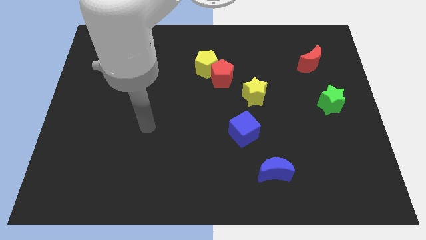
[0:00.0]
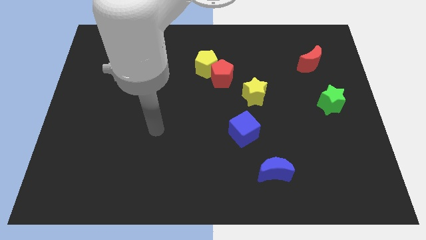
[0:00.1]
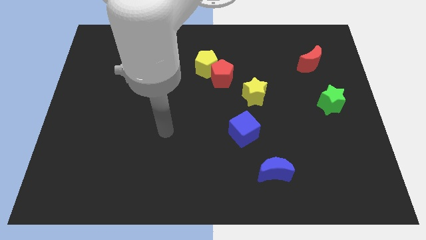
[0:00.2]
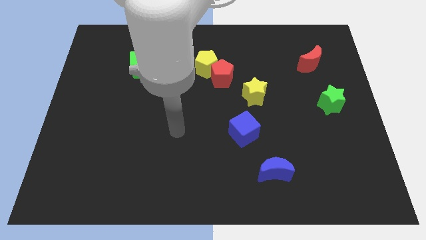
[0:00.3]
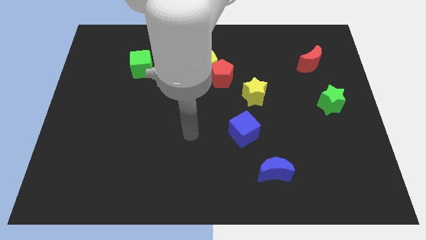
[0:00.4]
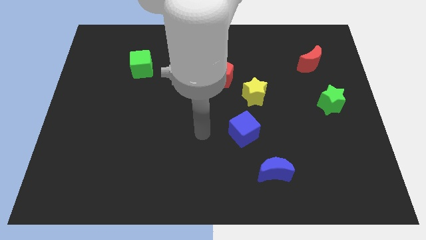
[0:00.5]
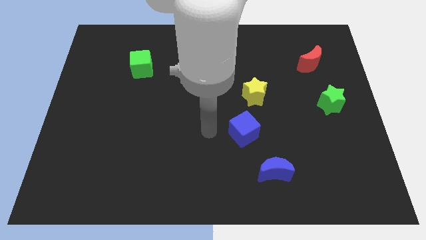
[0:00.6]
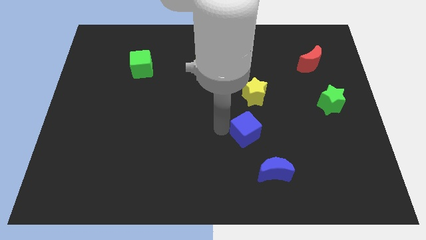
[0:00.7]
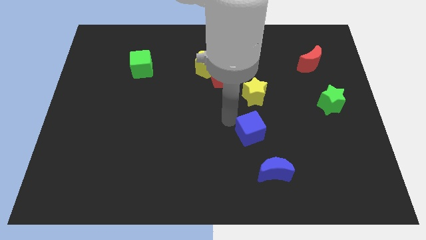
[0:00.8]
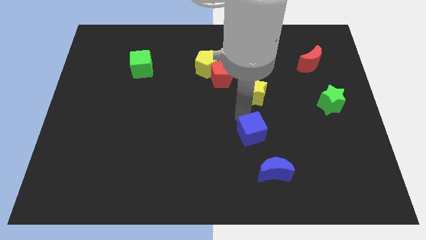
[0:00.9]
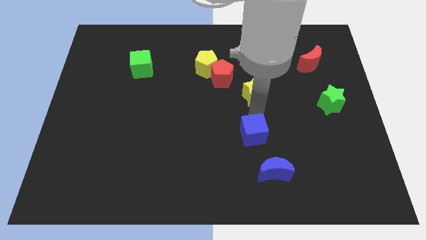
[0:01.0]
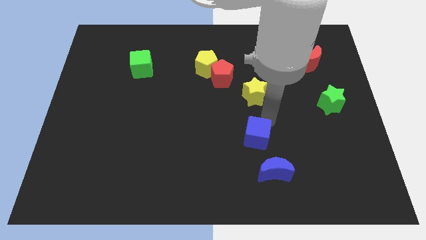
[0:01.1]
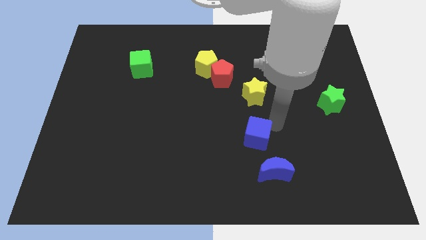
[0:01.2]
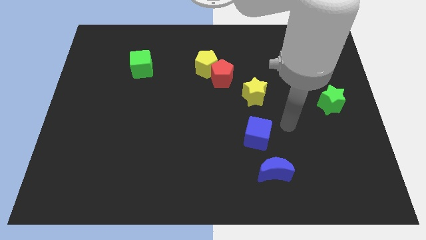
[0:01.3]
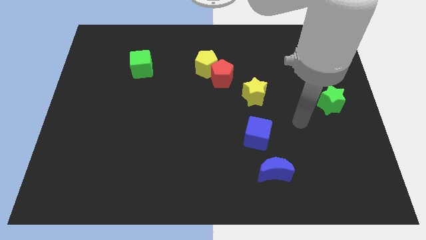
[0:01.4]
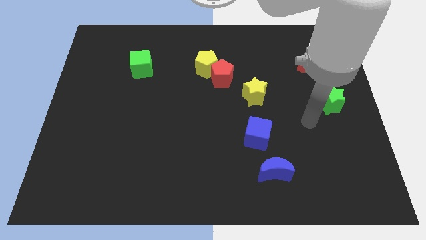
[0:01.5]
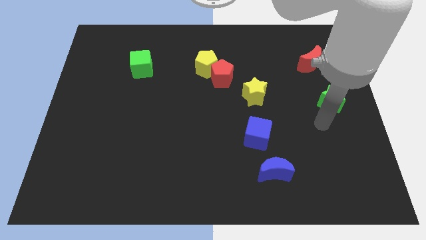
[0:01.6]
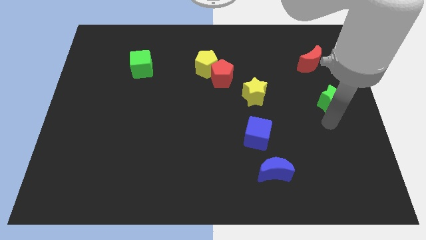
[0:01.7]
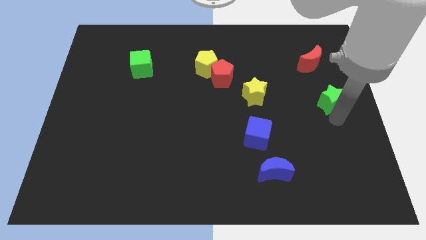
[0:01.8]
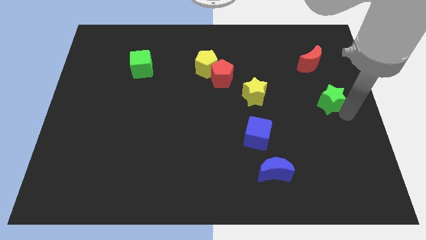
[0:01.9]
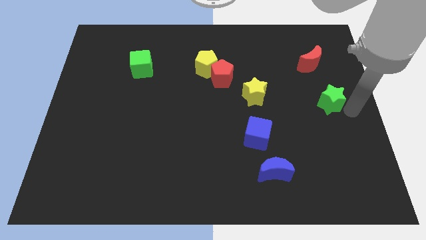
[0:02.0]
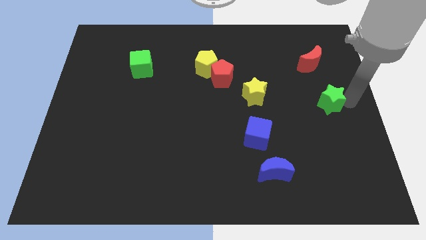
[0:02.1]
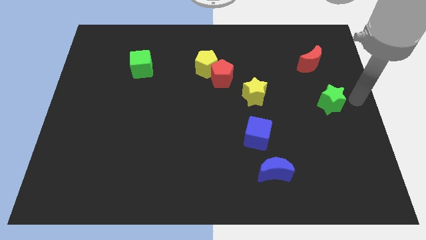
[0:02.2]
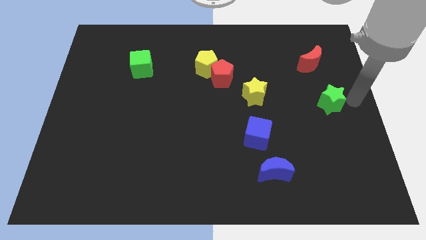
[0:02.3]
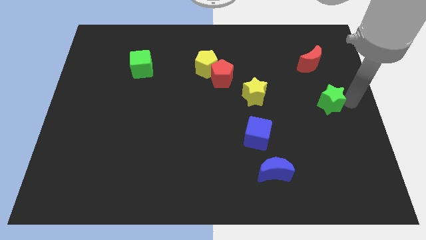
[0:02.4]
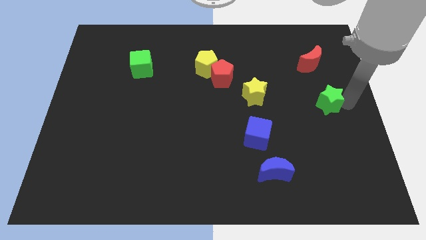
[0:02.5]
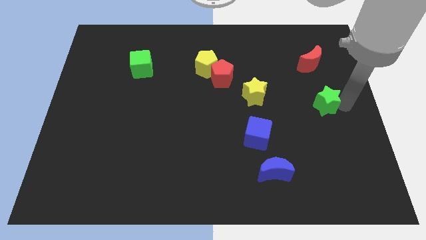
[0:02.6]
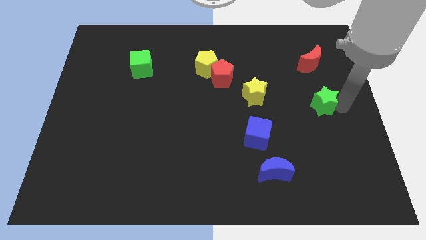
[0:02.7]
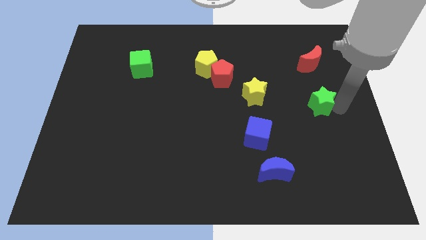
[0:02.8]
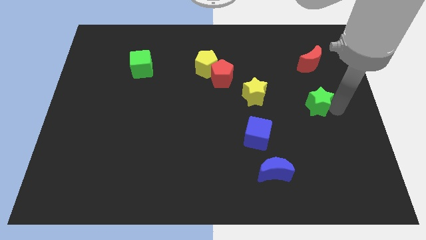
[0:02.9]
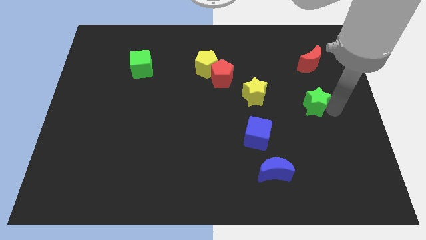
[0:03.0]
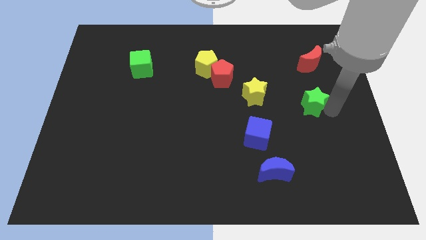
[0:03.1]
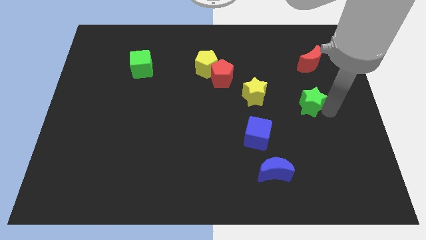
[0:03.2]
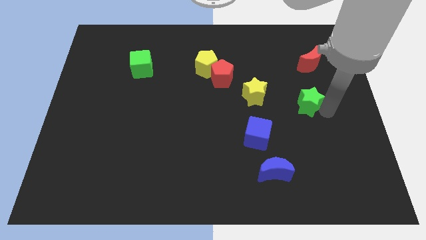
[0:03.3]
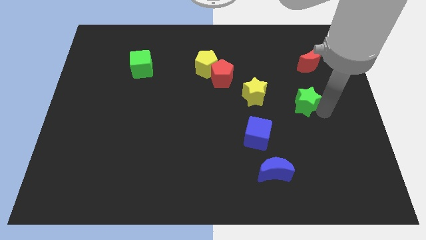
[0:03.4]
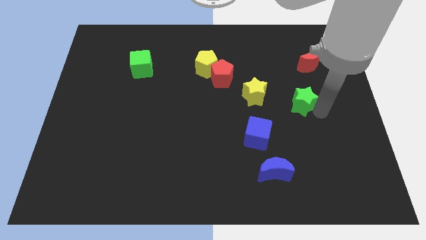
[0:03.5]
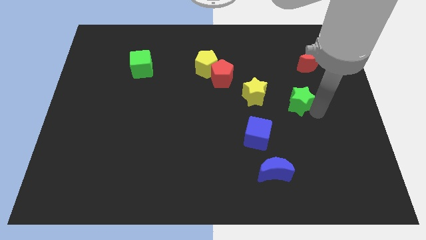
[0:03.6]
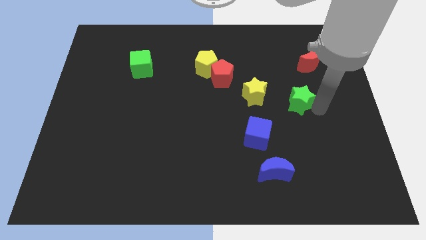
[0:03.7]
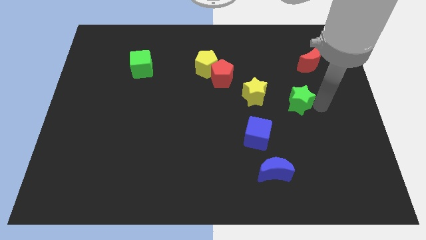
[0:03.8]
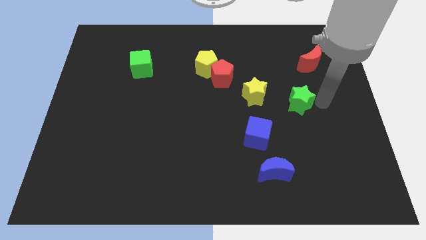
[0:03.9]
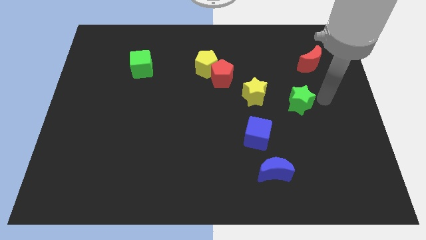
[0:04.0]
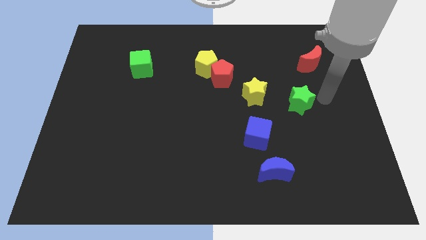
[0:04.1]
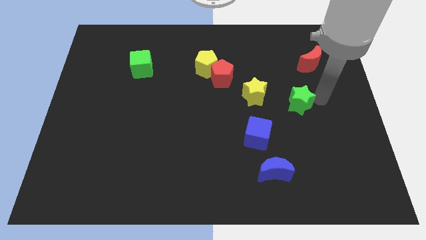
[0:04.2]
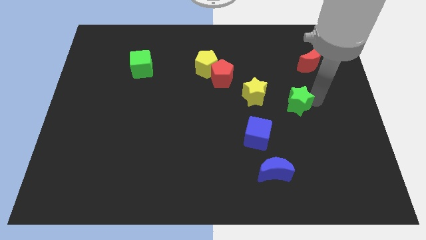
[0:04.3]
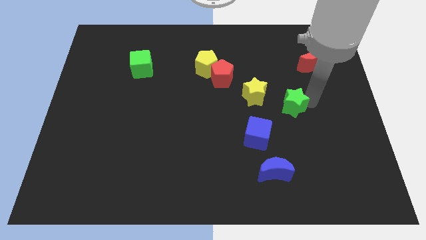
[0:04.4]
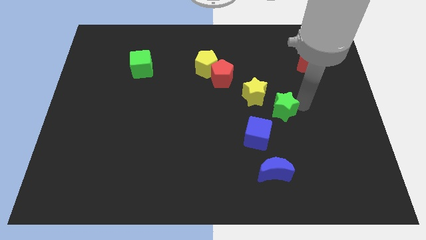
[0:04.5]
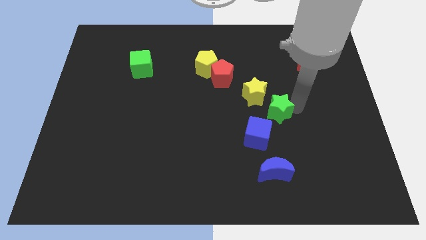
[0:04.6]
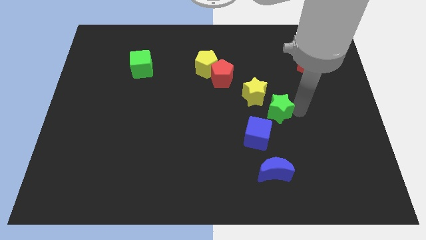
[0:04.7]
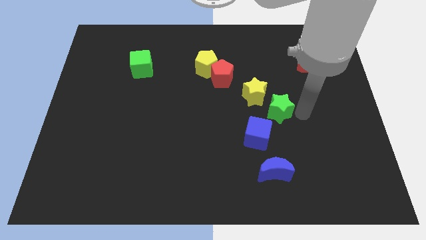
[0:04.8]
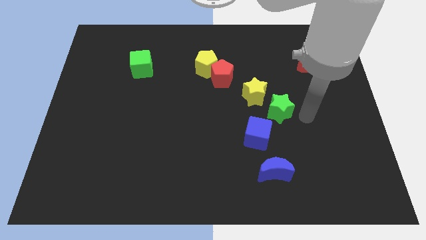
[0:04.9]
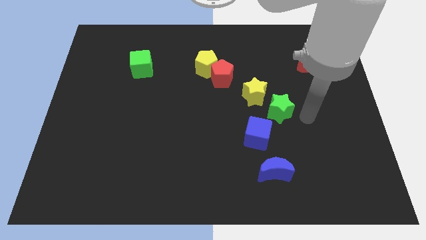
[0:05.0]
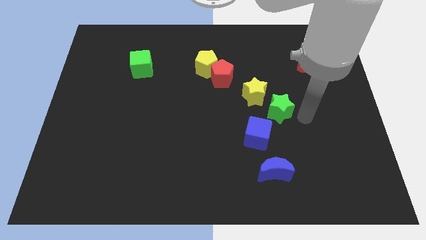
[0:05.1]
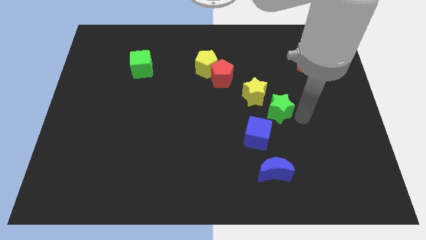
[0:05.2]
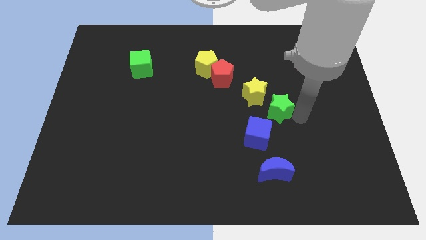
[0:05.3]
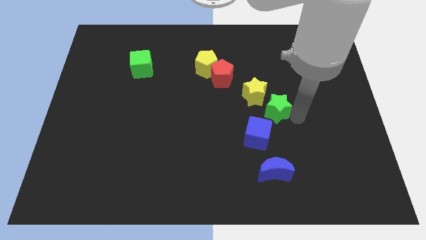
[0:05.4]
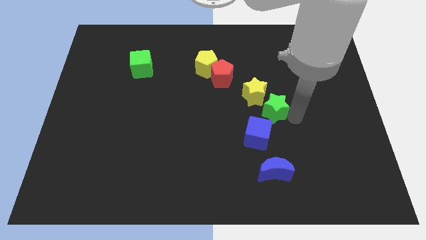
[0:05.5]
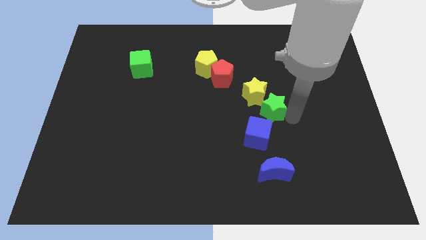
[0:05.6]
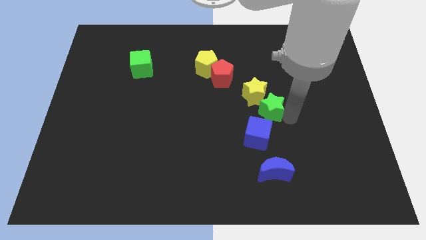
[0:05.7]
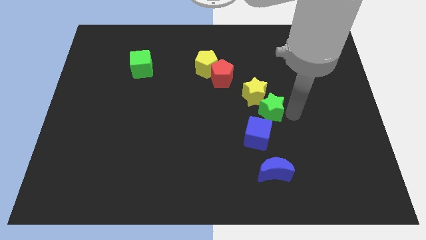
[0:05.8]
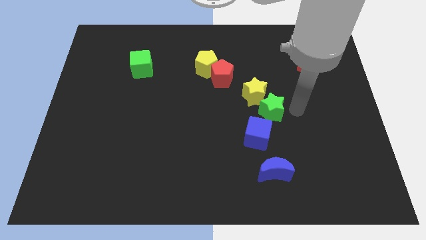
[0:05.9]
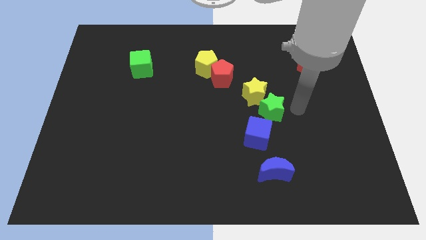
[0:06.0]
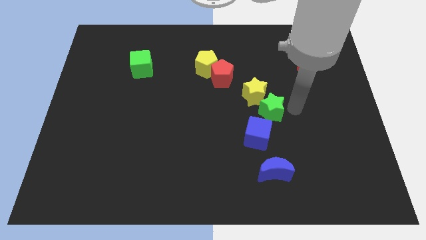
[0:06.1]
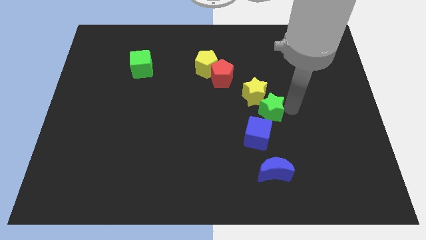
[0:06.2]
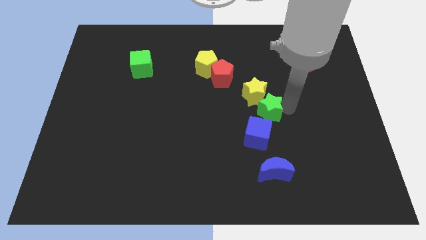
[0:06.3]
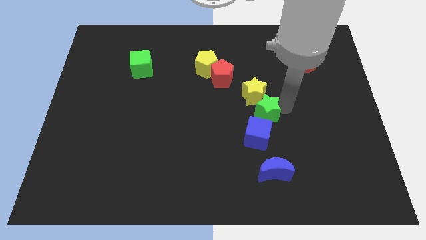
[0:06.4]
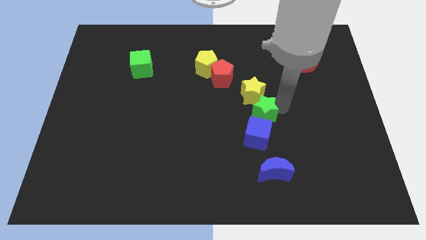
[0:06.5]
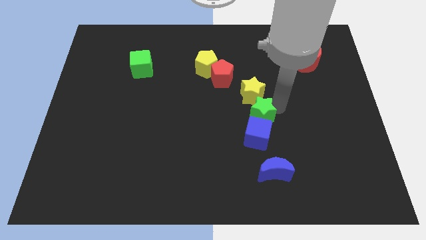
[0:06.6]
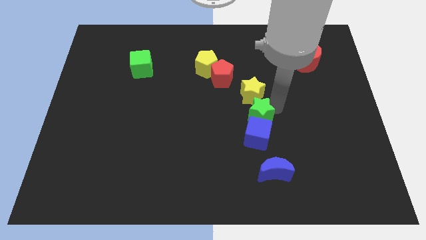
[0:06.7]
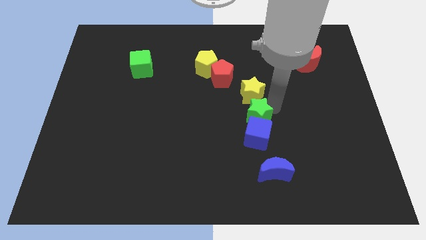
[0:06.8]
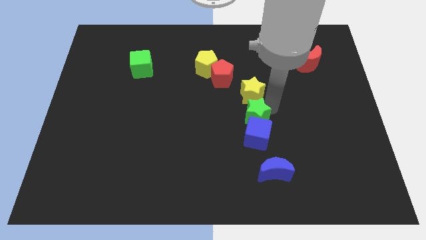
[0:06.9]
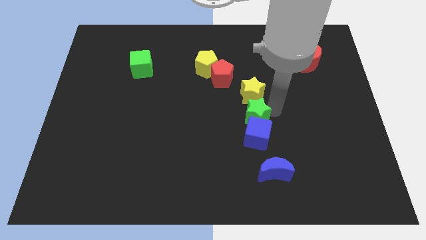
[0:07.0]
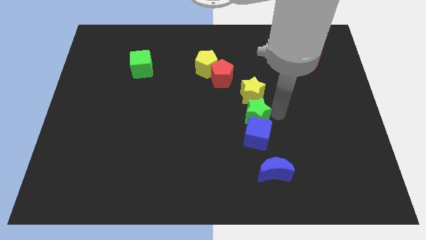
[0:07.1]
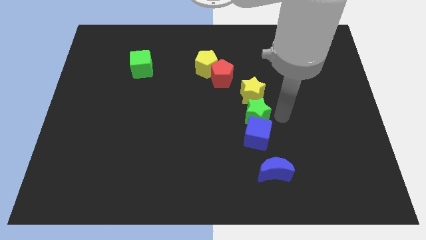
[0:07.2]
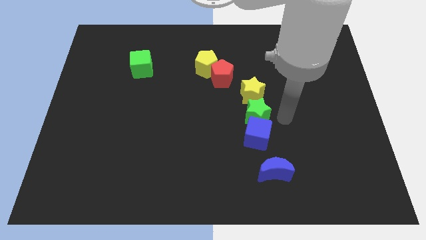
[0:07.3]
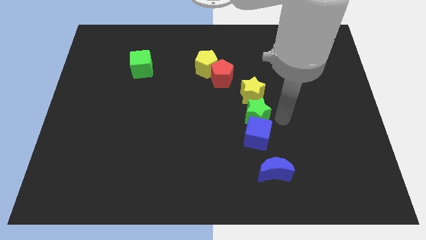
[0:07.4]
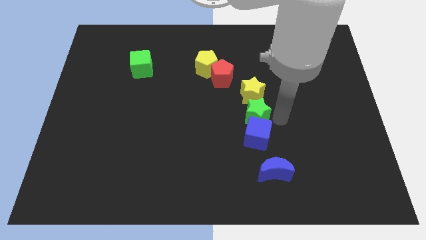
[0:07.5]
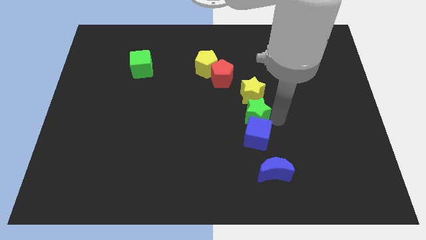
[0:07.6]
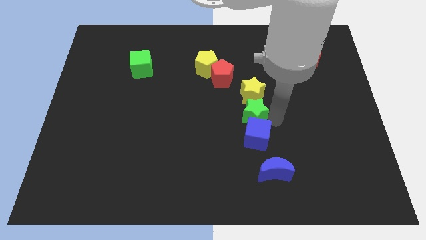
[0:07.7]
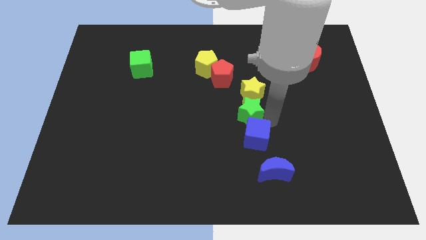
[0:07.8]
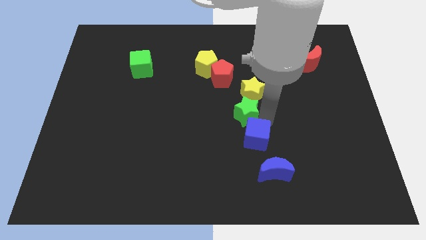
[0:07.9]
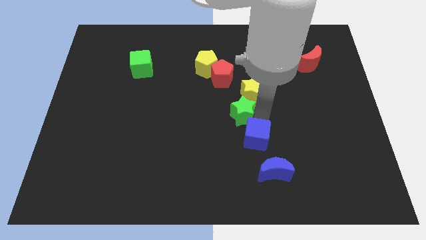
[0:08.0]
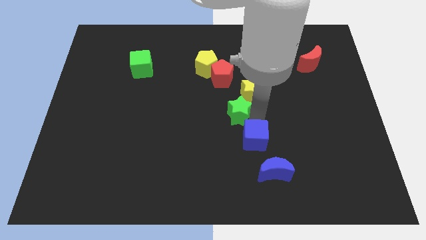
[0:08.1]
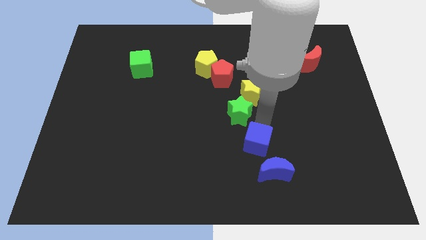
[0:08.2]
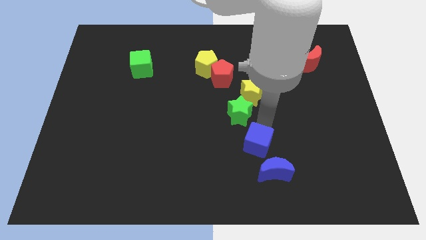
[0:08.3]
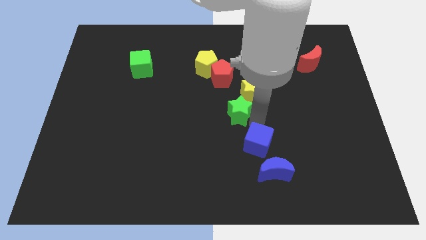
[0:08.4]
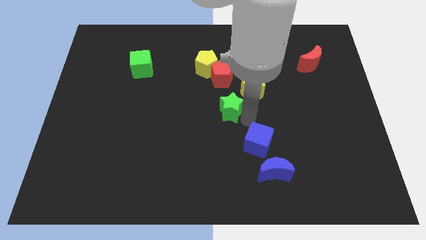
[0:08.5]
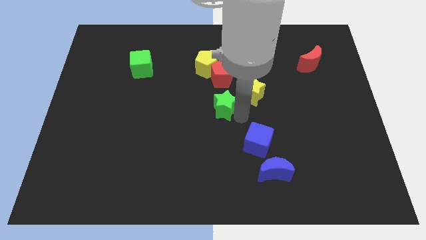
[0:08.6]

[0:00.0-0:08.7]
push the green star below the yellow pentagon
